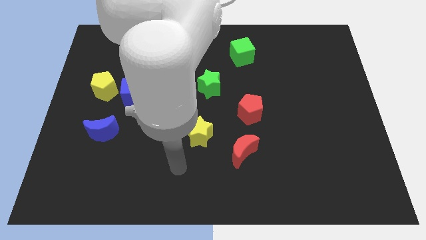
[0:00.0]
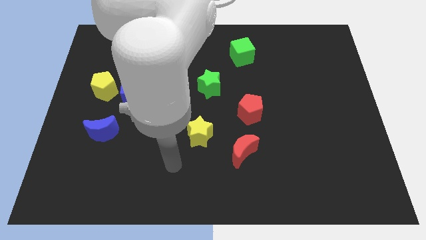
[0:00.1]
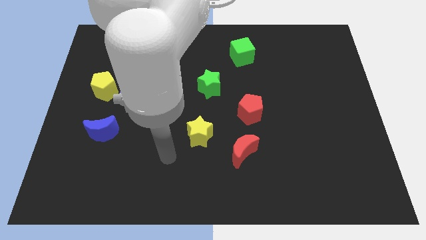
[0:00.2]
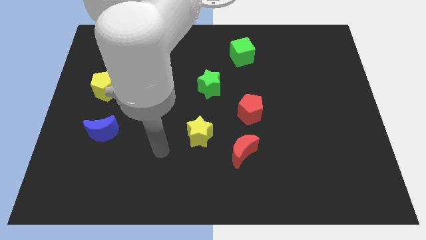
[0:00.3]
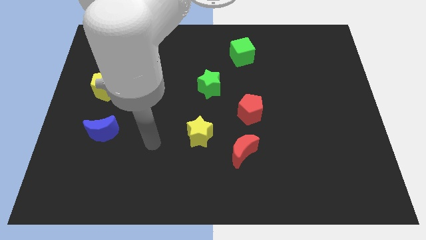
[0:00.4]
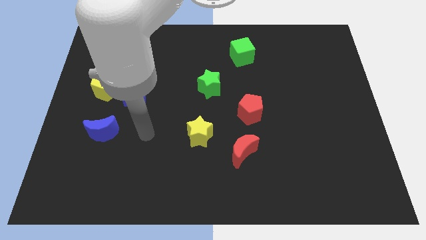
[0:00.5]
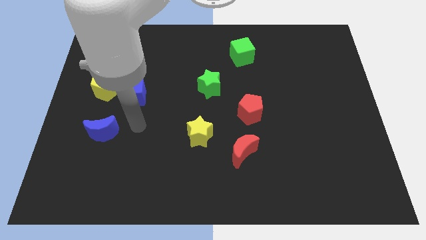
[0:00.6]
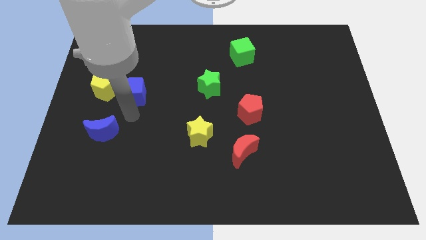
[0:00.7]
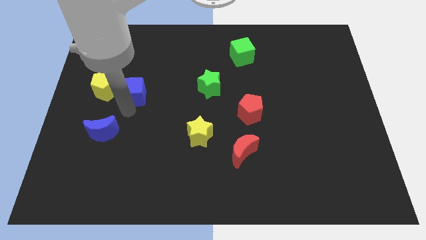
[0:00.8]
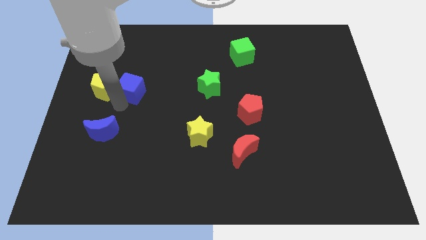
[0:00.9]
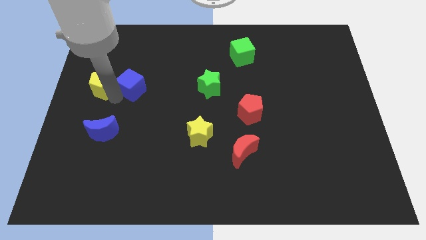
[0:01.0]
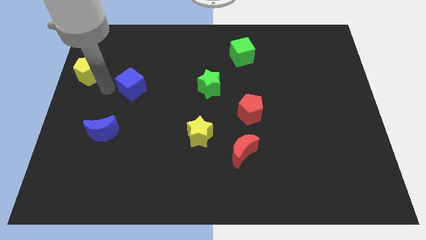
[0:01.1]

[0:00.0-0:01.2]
separate the blue cube from the yellow pentagon

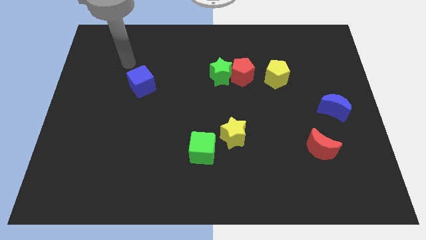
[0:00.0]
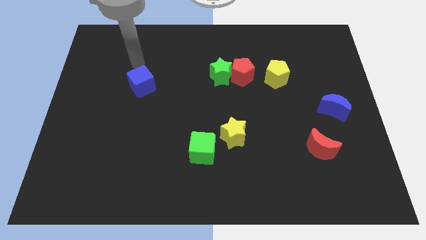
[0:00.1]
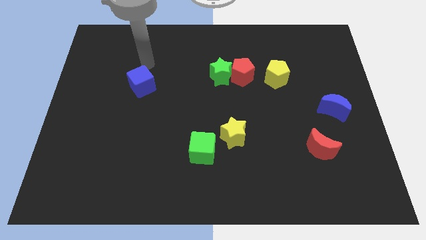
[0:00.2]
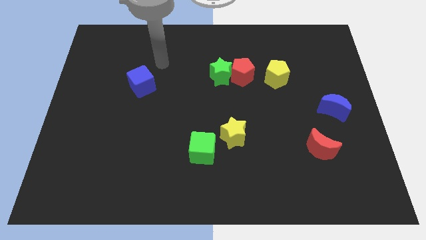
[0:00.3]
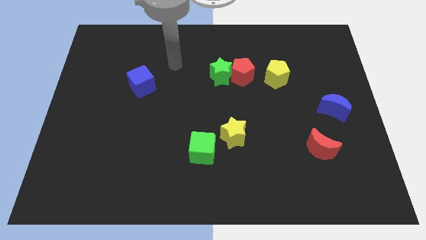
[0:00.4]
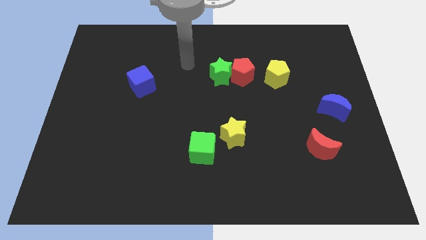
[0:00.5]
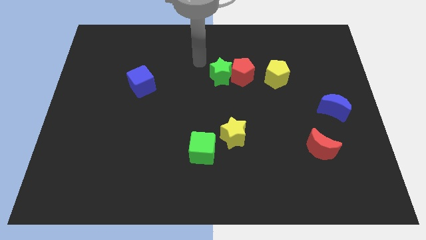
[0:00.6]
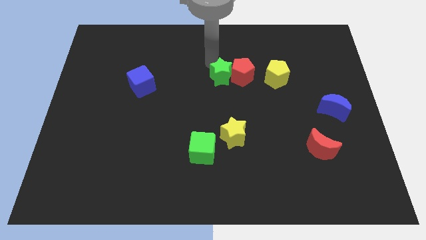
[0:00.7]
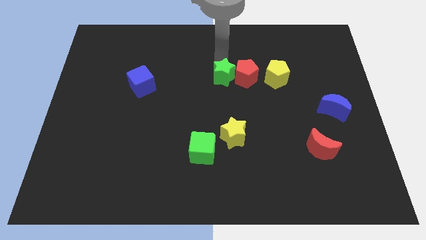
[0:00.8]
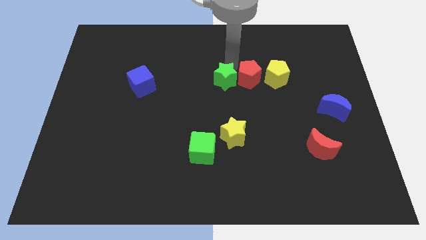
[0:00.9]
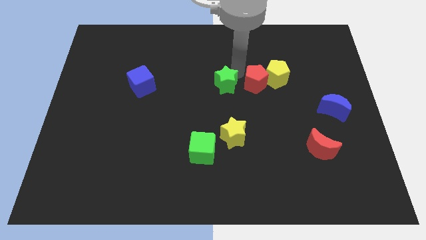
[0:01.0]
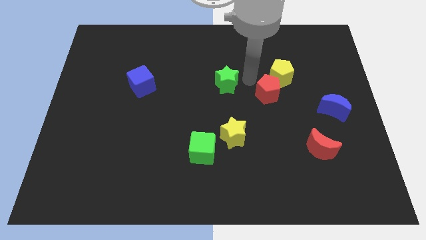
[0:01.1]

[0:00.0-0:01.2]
pull the green star apart from the red pentagon

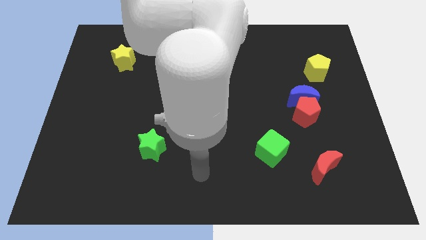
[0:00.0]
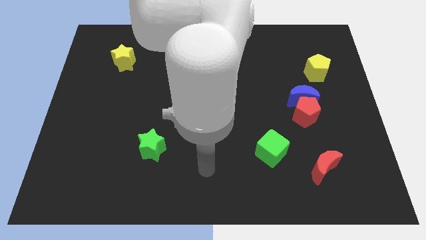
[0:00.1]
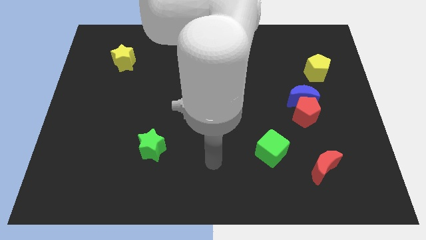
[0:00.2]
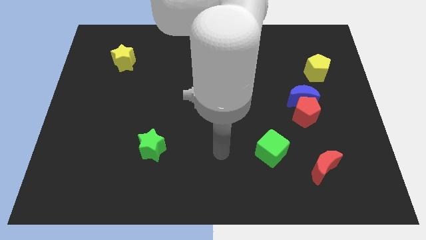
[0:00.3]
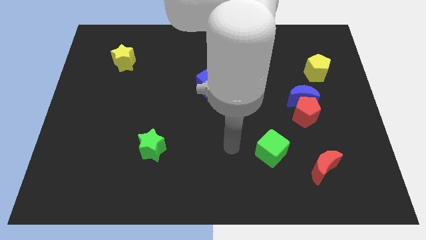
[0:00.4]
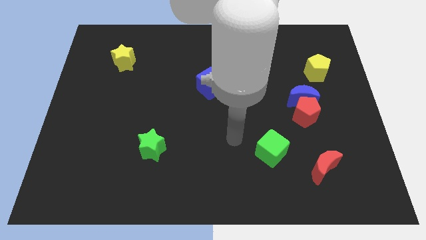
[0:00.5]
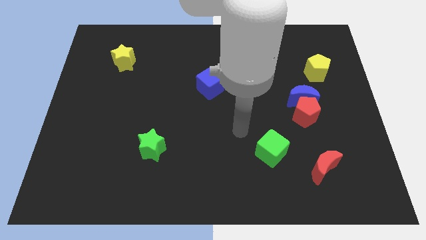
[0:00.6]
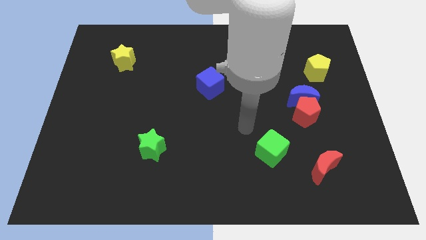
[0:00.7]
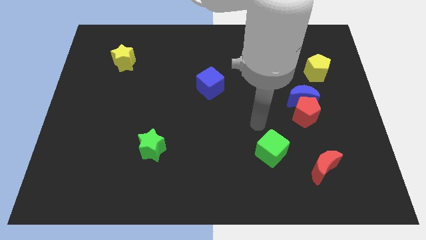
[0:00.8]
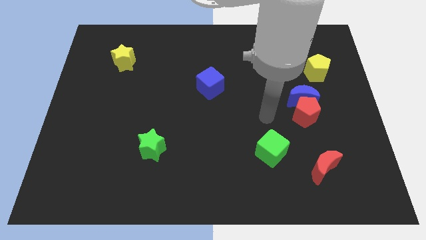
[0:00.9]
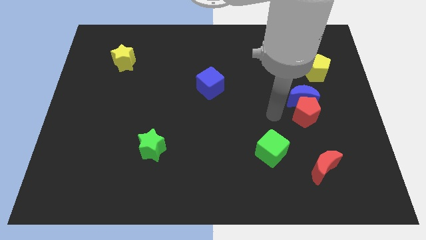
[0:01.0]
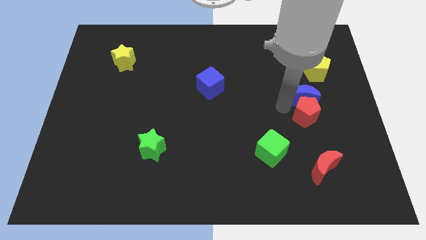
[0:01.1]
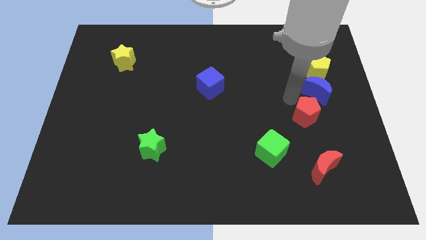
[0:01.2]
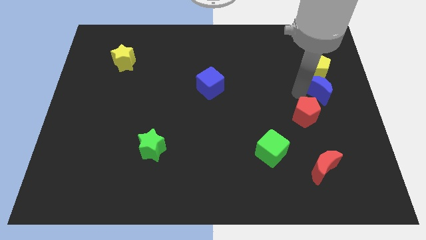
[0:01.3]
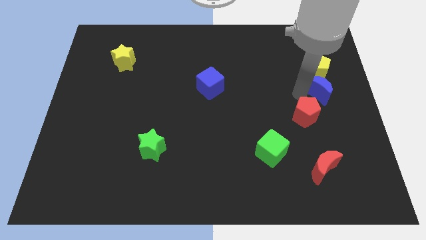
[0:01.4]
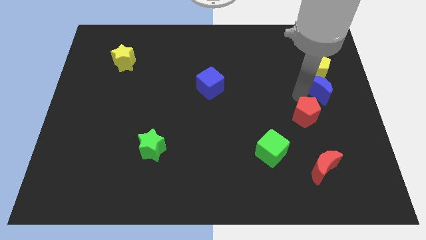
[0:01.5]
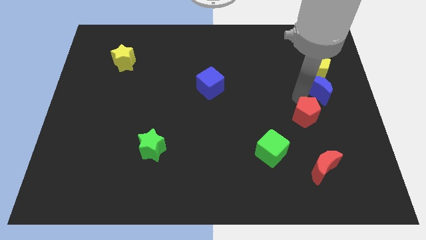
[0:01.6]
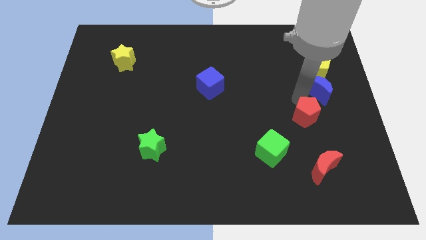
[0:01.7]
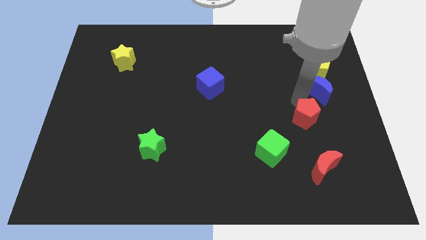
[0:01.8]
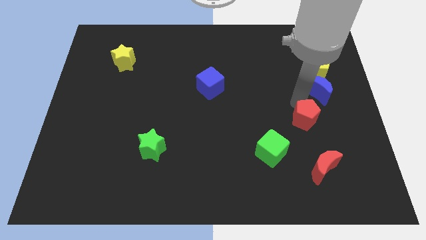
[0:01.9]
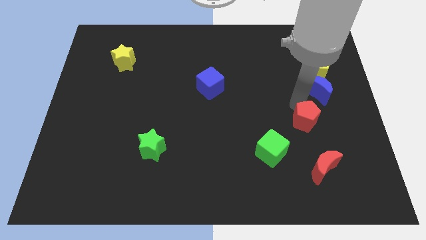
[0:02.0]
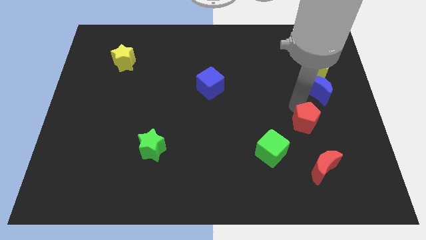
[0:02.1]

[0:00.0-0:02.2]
separate the red pentagon from the blue moon

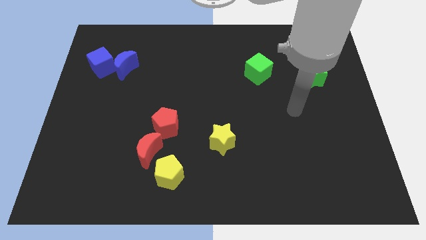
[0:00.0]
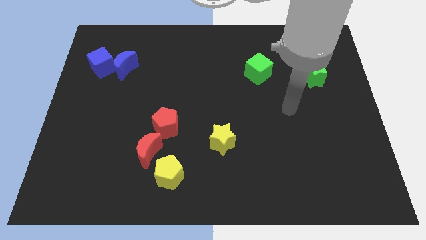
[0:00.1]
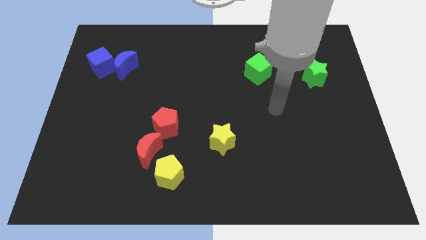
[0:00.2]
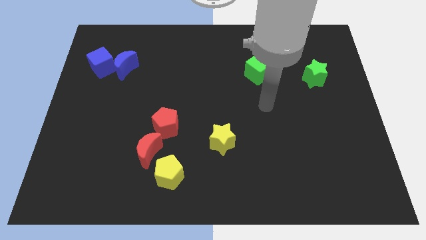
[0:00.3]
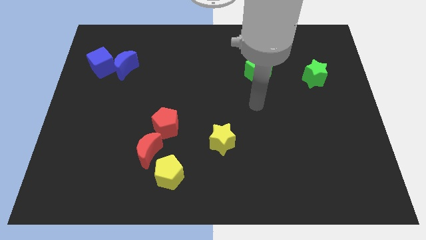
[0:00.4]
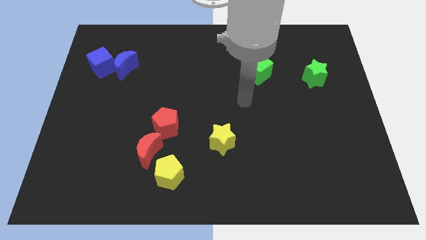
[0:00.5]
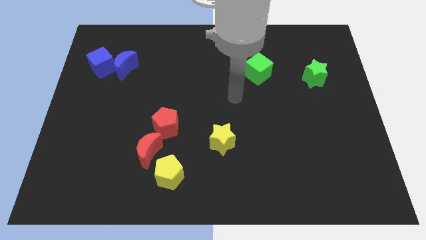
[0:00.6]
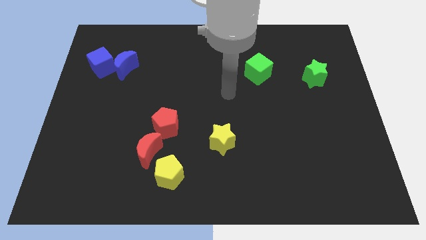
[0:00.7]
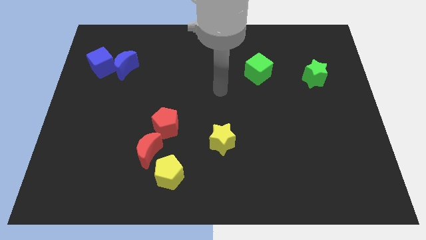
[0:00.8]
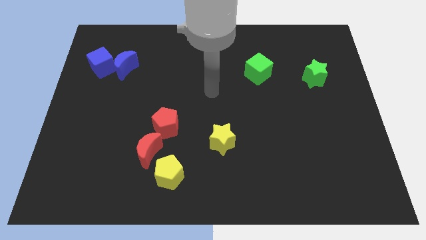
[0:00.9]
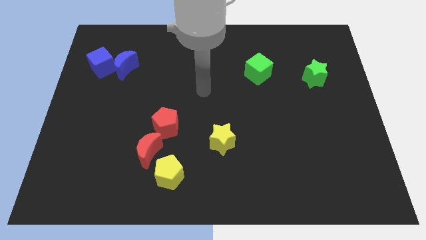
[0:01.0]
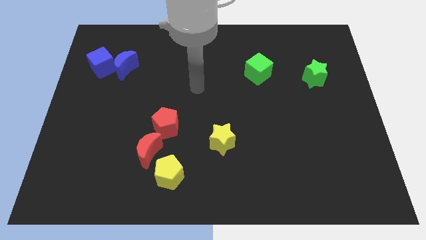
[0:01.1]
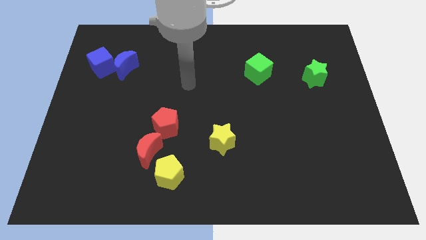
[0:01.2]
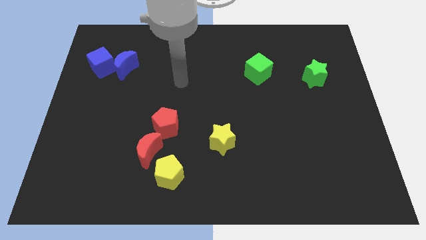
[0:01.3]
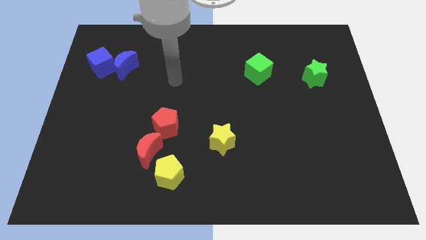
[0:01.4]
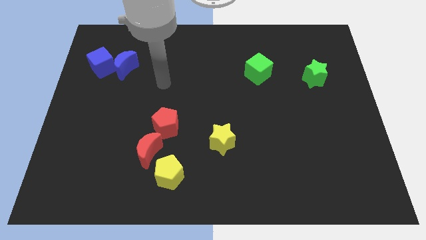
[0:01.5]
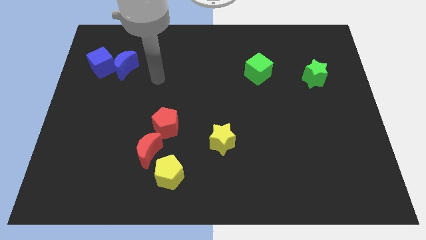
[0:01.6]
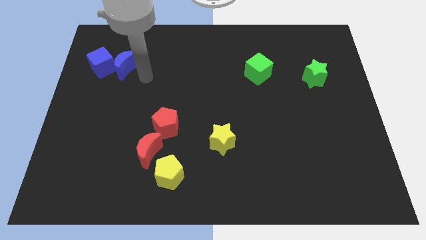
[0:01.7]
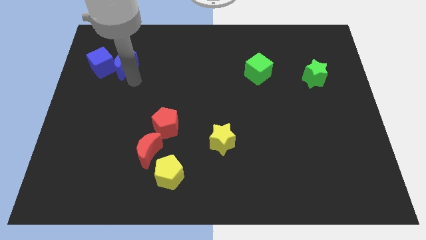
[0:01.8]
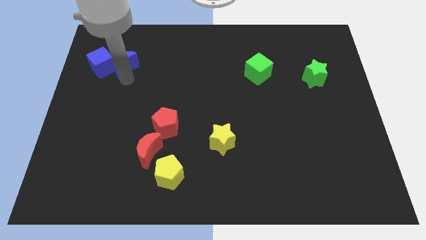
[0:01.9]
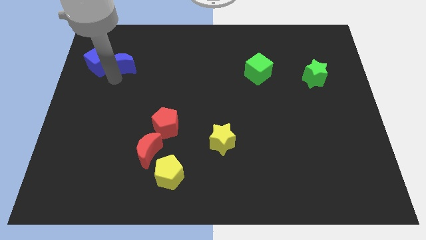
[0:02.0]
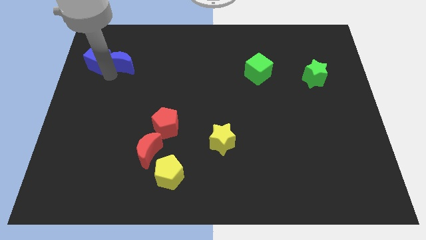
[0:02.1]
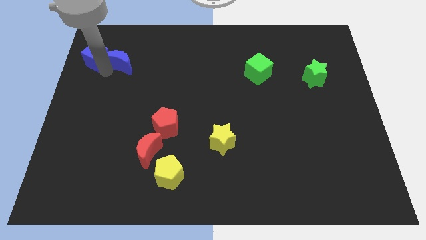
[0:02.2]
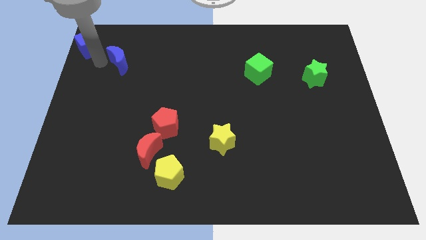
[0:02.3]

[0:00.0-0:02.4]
move the blue moon away from the blue cube

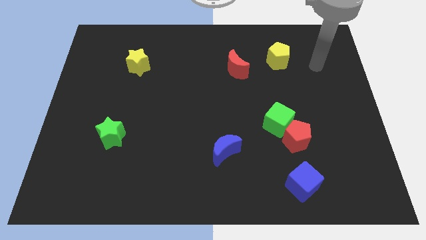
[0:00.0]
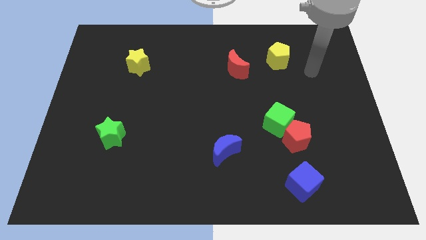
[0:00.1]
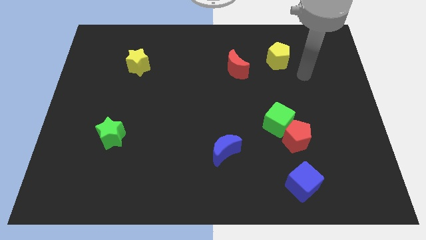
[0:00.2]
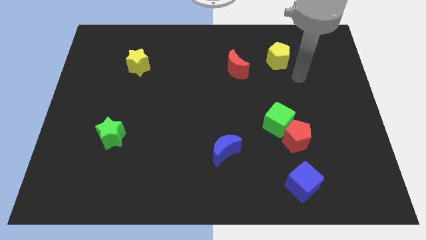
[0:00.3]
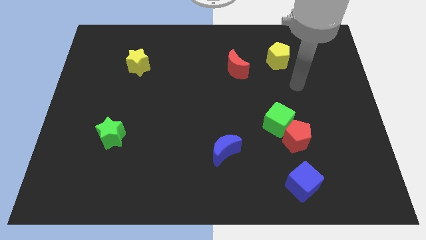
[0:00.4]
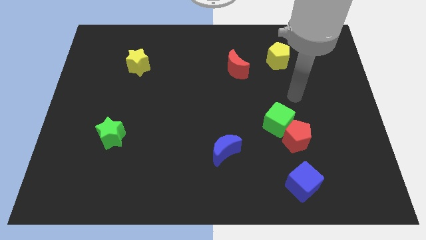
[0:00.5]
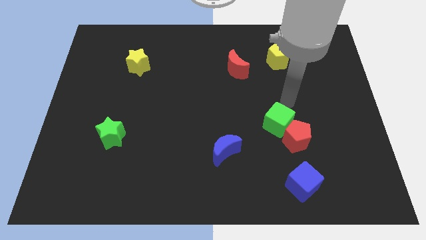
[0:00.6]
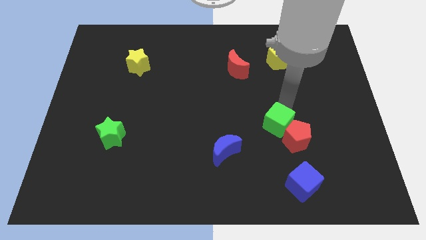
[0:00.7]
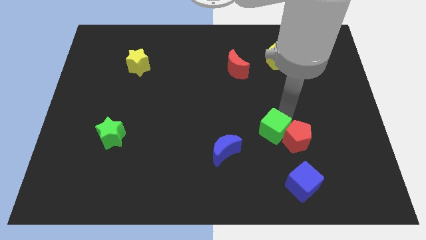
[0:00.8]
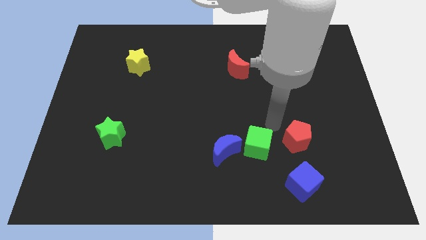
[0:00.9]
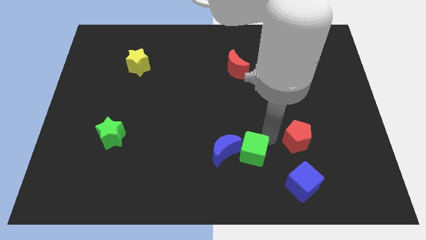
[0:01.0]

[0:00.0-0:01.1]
move the red pentagon away from the green cube

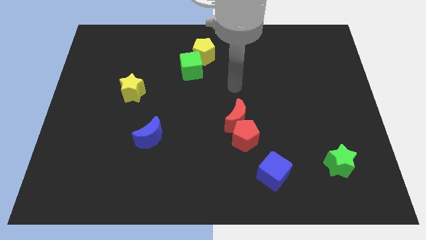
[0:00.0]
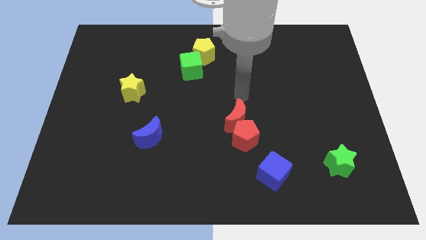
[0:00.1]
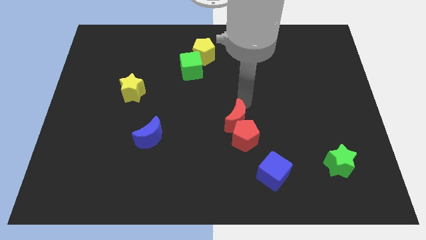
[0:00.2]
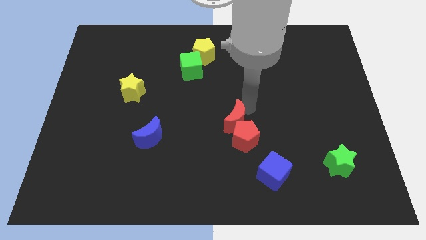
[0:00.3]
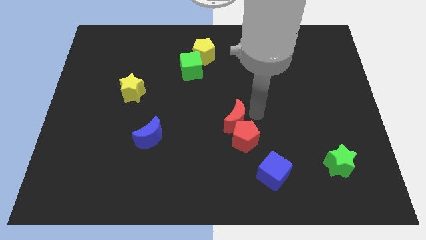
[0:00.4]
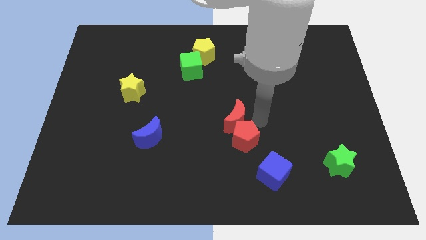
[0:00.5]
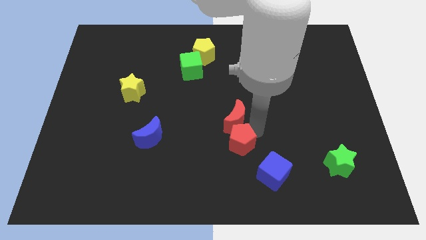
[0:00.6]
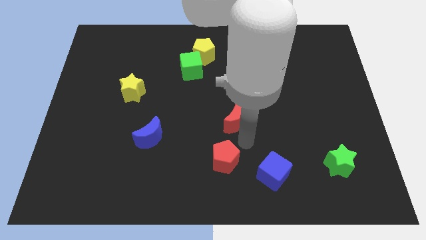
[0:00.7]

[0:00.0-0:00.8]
pull the red moon apart from the red pentagon

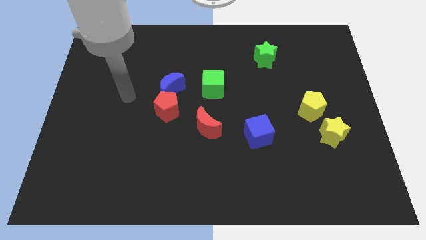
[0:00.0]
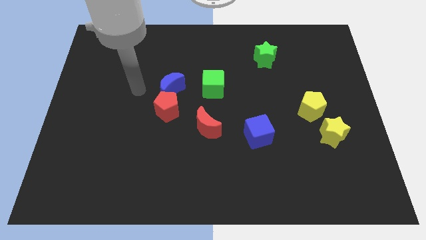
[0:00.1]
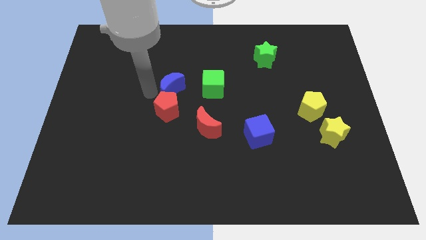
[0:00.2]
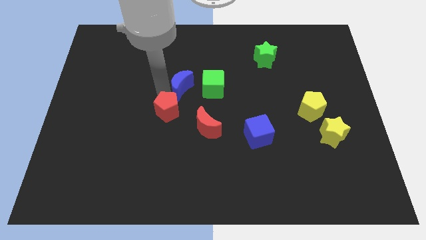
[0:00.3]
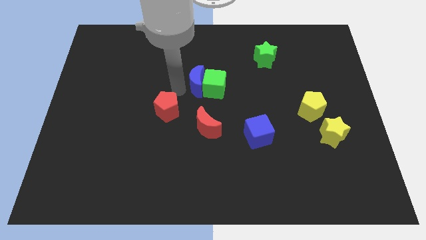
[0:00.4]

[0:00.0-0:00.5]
pull the red pentagon apart from the blue moon
